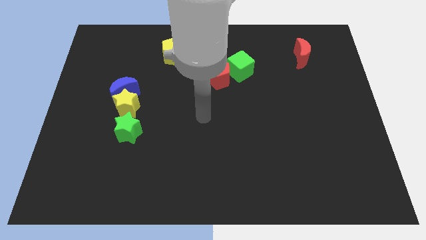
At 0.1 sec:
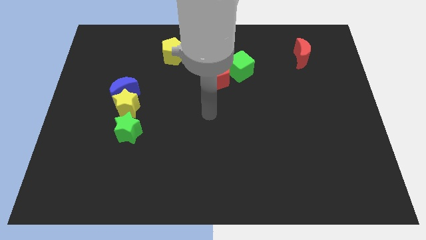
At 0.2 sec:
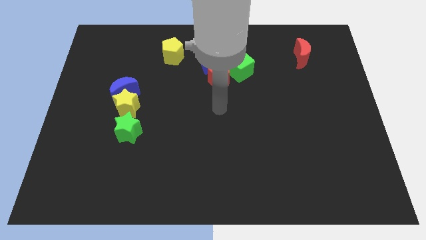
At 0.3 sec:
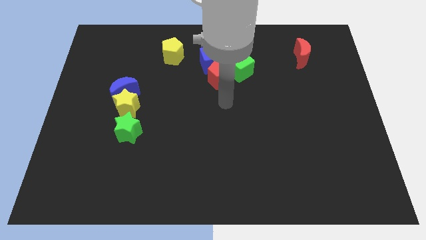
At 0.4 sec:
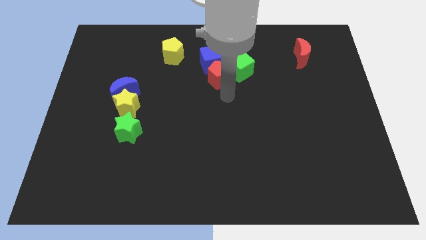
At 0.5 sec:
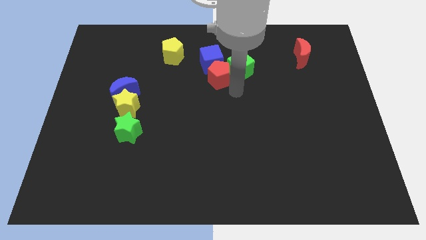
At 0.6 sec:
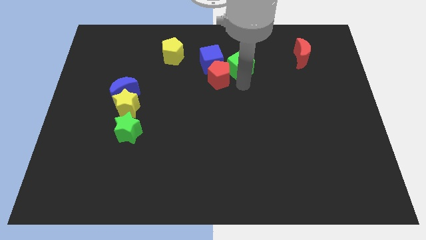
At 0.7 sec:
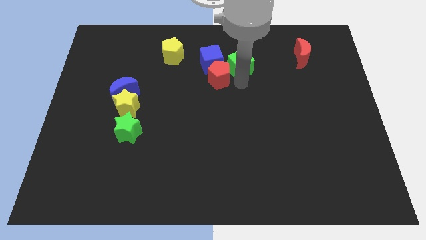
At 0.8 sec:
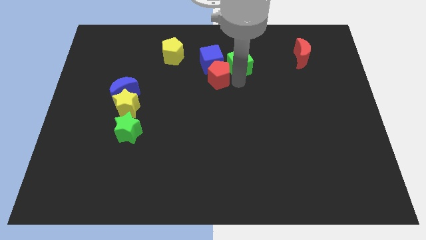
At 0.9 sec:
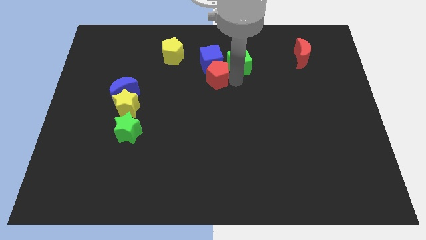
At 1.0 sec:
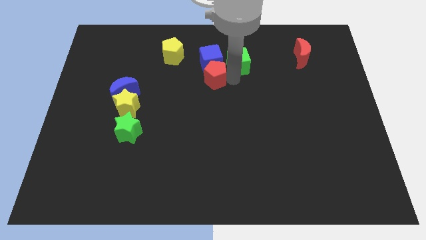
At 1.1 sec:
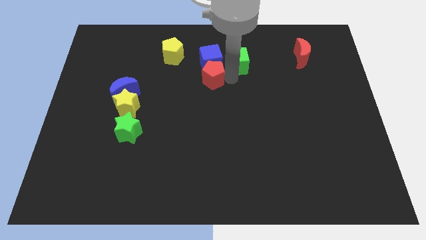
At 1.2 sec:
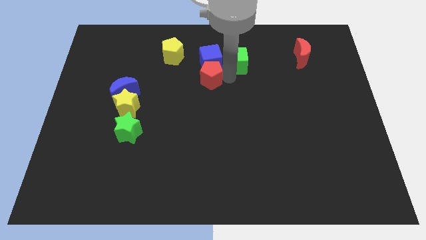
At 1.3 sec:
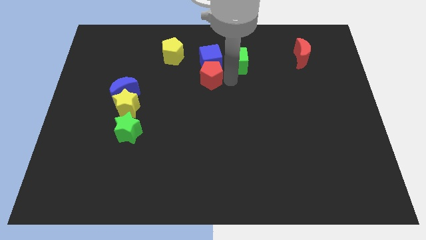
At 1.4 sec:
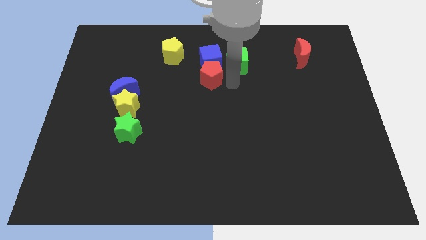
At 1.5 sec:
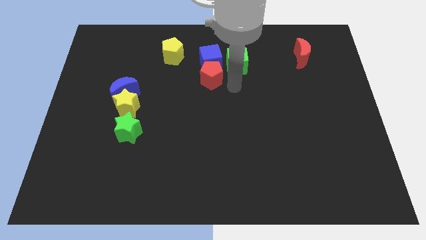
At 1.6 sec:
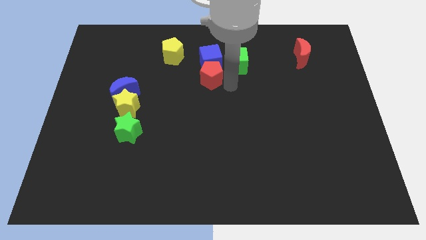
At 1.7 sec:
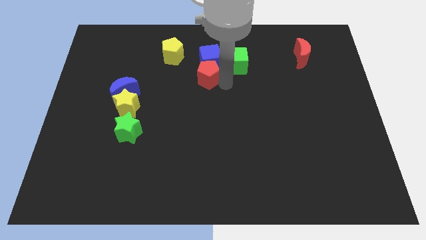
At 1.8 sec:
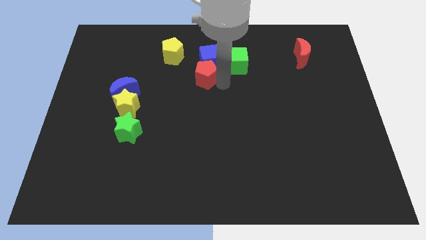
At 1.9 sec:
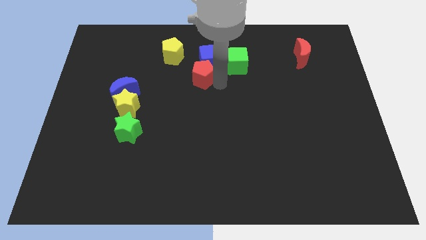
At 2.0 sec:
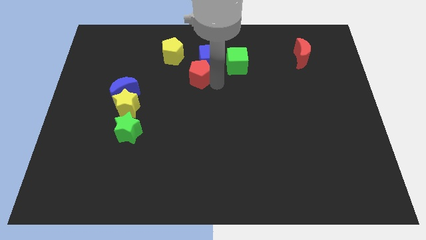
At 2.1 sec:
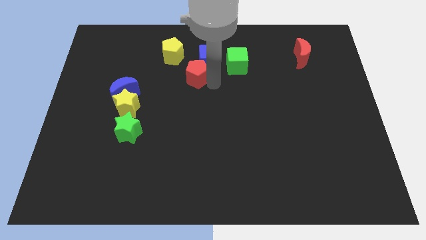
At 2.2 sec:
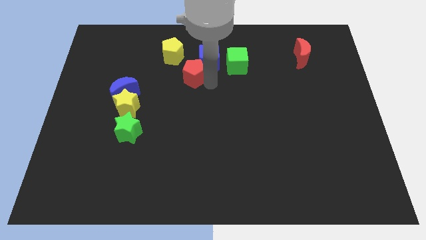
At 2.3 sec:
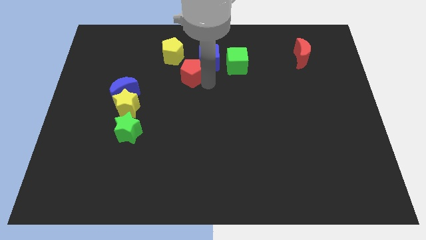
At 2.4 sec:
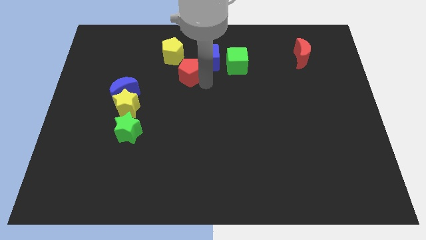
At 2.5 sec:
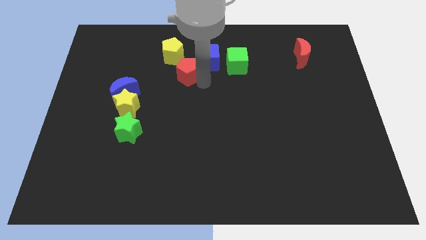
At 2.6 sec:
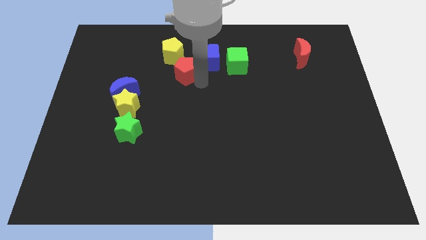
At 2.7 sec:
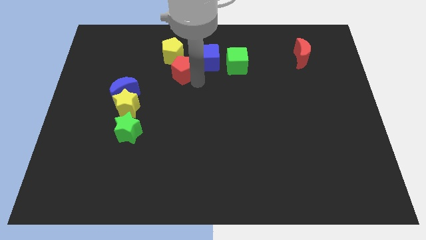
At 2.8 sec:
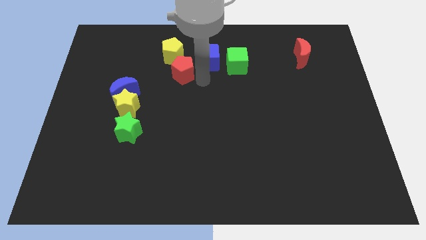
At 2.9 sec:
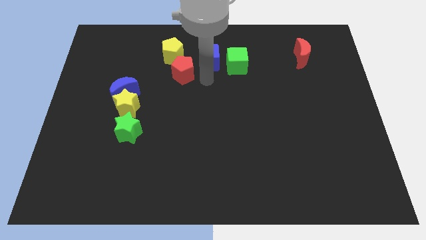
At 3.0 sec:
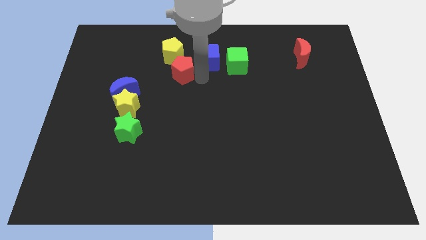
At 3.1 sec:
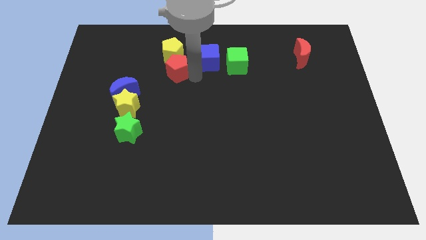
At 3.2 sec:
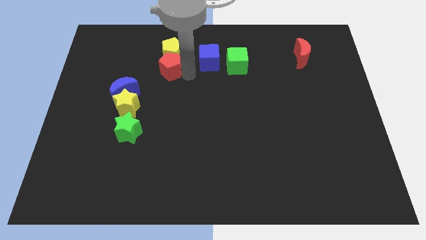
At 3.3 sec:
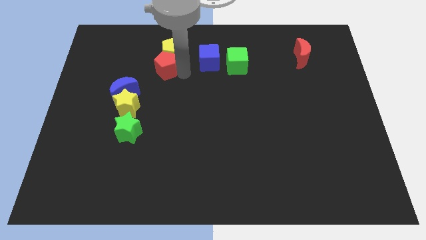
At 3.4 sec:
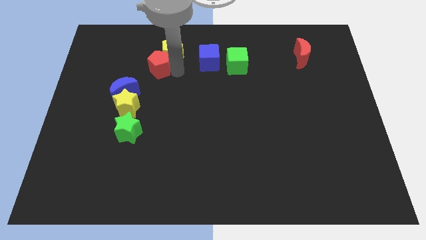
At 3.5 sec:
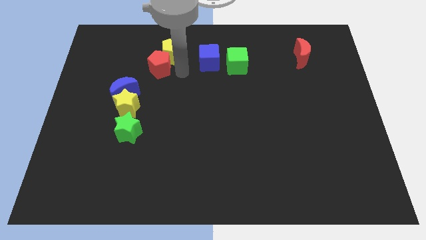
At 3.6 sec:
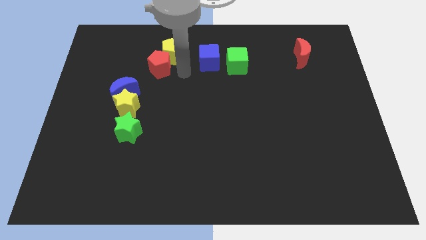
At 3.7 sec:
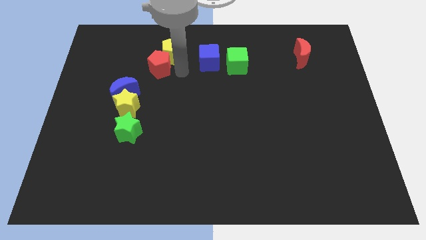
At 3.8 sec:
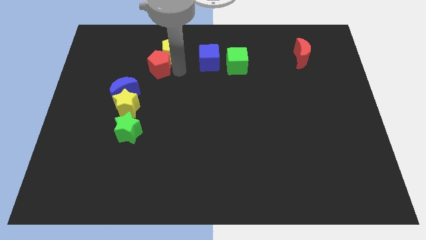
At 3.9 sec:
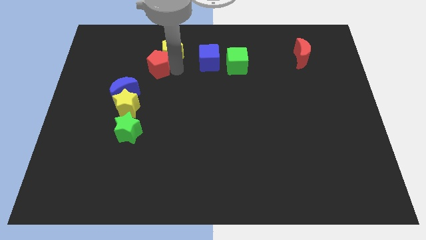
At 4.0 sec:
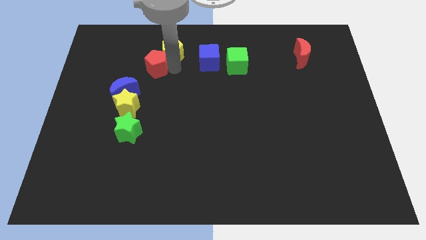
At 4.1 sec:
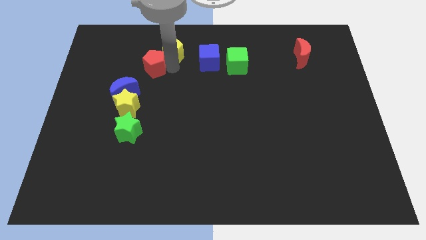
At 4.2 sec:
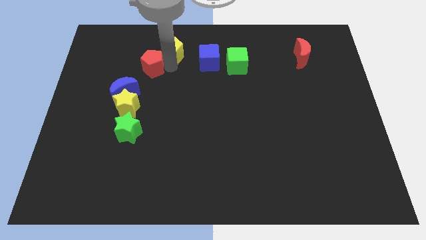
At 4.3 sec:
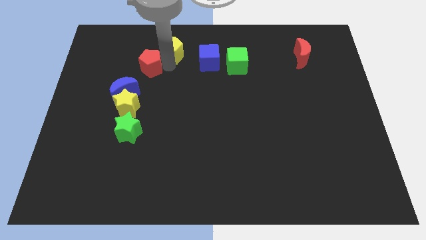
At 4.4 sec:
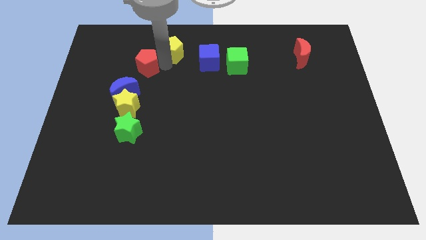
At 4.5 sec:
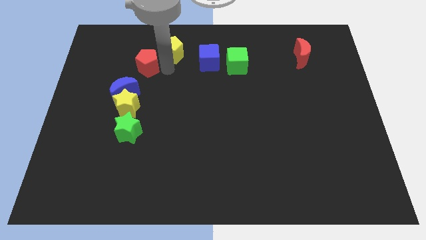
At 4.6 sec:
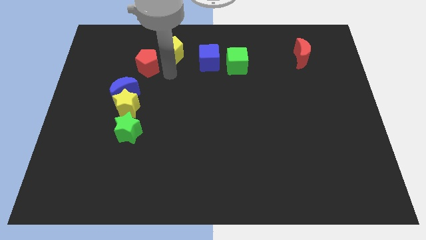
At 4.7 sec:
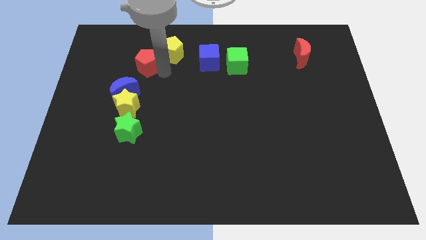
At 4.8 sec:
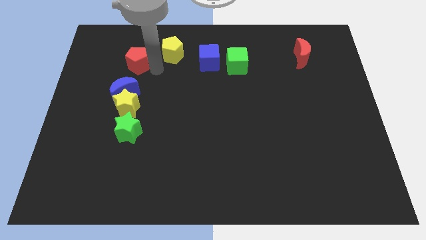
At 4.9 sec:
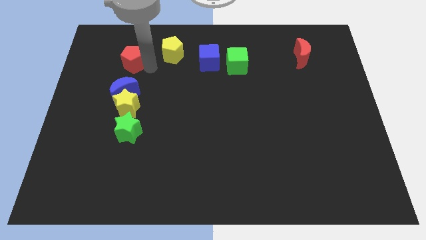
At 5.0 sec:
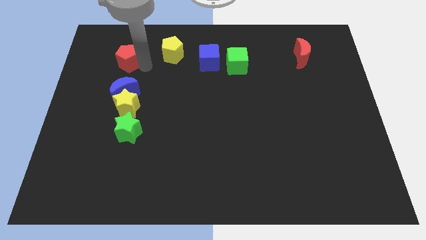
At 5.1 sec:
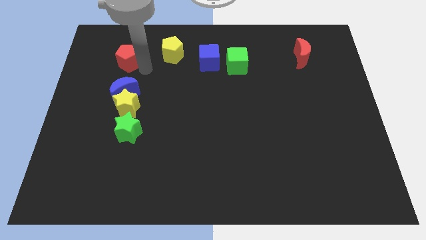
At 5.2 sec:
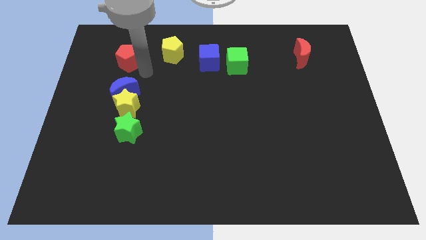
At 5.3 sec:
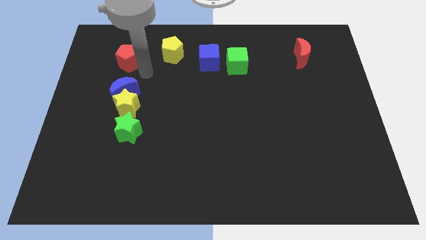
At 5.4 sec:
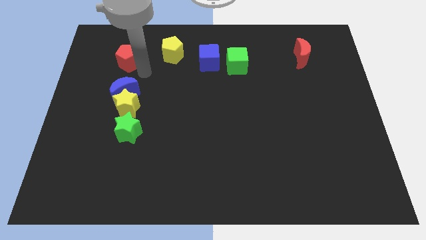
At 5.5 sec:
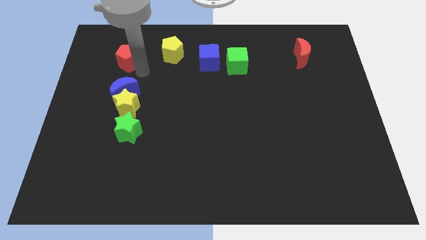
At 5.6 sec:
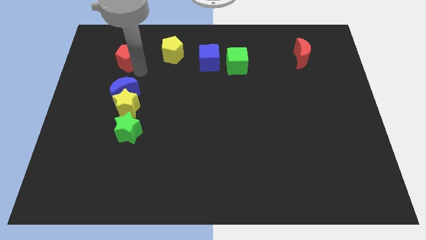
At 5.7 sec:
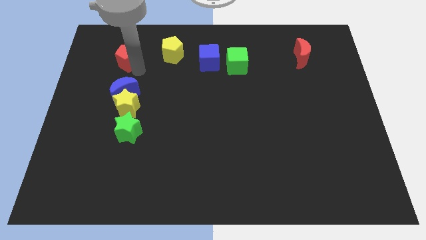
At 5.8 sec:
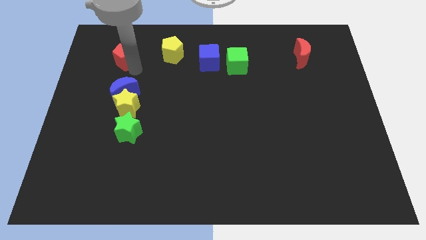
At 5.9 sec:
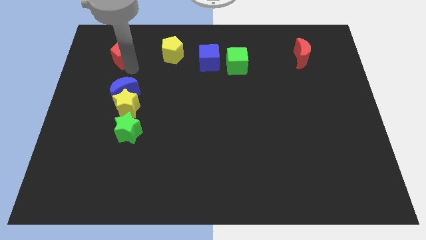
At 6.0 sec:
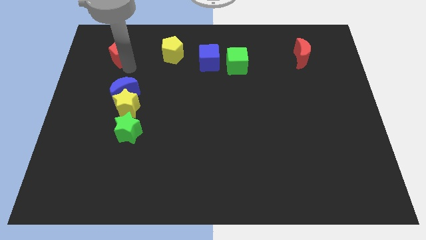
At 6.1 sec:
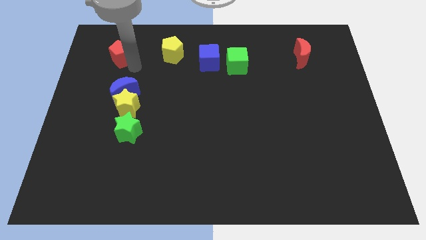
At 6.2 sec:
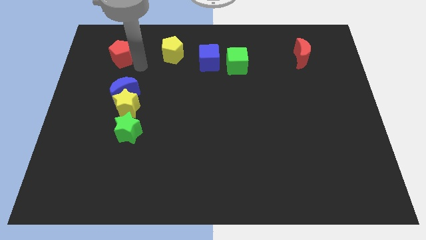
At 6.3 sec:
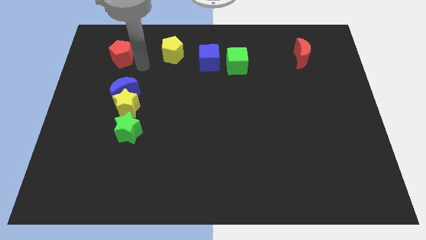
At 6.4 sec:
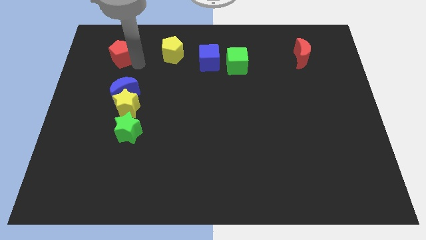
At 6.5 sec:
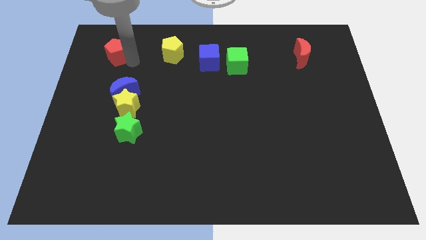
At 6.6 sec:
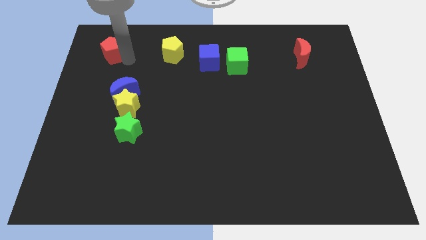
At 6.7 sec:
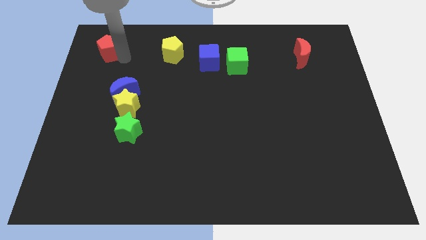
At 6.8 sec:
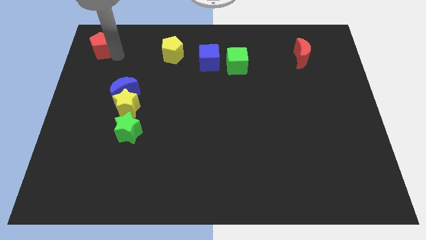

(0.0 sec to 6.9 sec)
put the red pentagon to the top left
